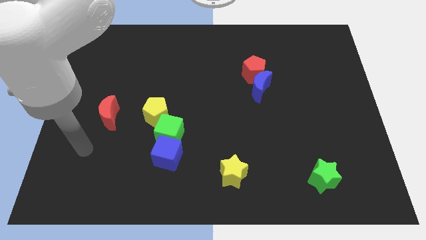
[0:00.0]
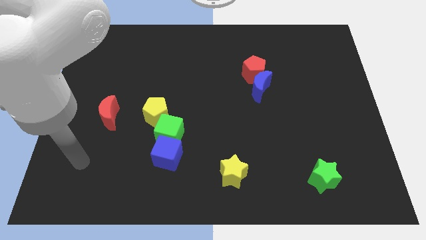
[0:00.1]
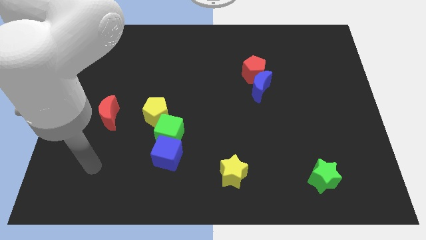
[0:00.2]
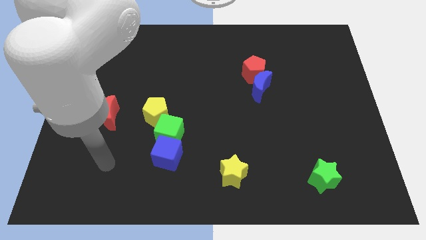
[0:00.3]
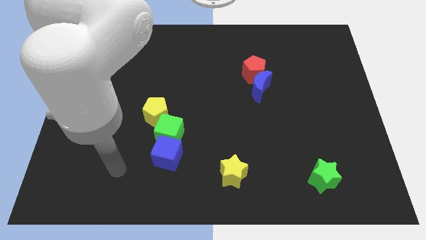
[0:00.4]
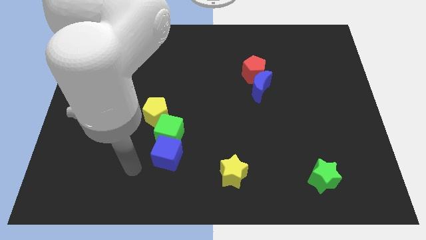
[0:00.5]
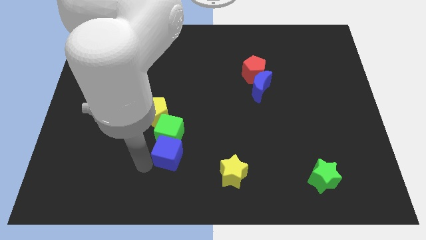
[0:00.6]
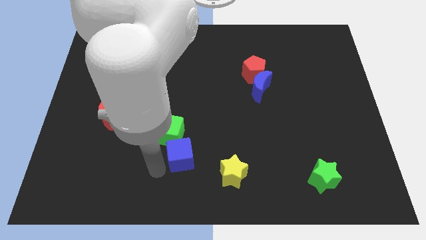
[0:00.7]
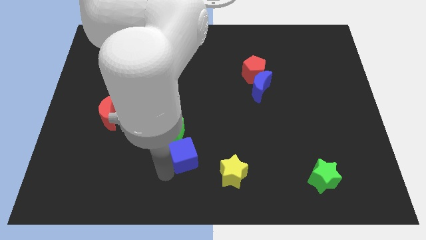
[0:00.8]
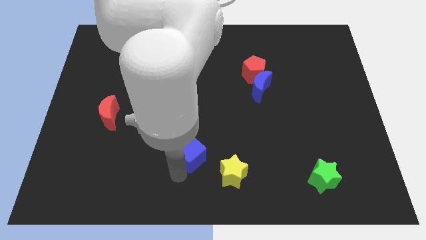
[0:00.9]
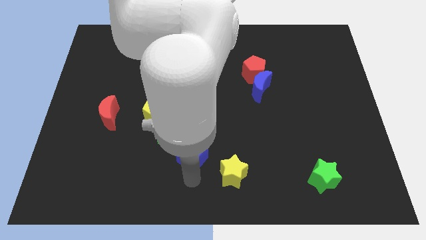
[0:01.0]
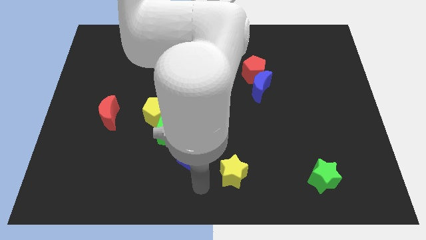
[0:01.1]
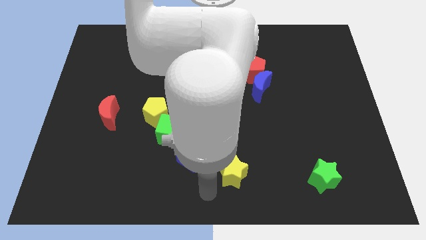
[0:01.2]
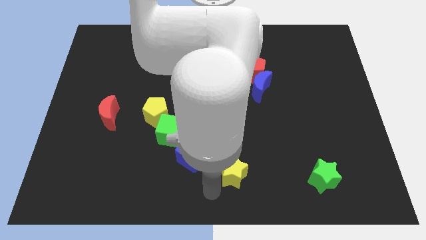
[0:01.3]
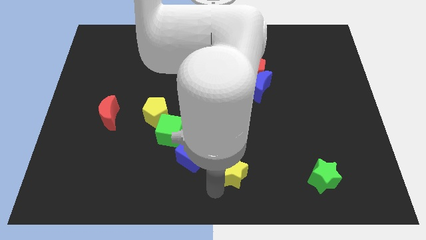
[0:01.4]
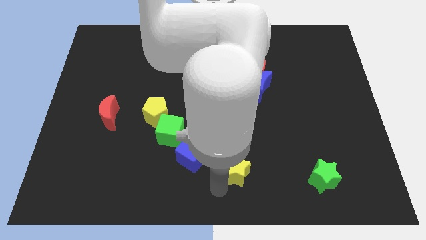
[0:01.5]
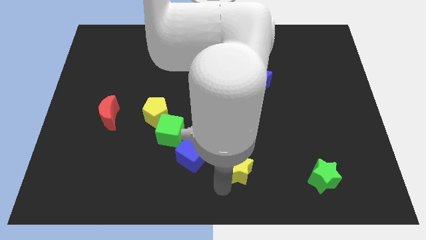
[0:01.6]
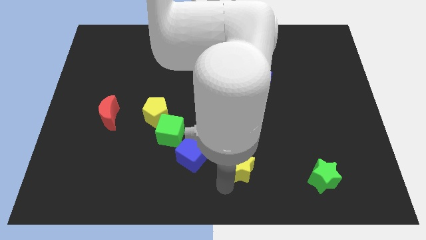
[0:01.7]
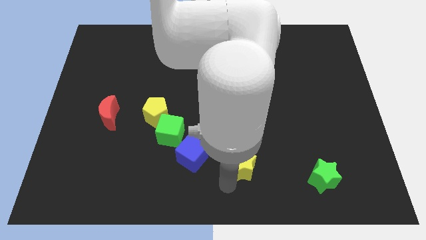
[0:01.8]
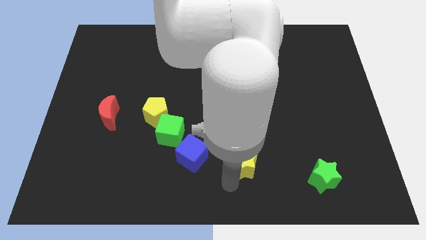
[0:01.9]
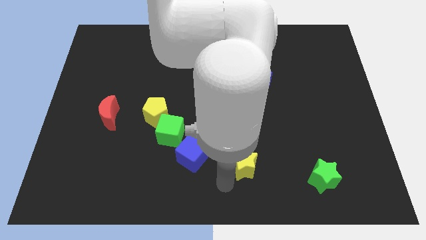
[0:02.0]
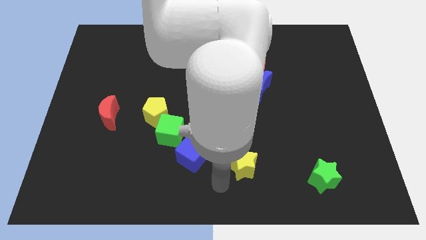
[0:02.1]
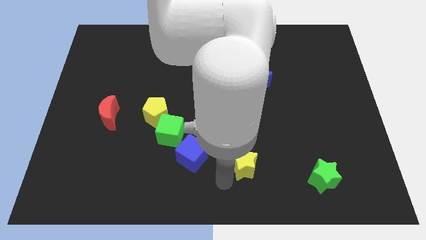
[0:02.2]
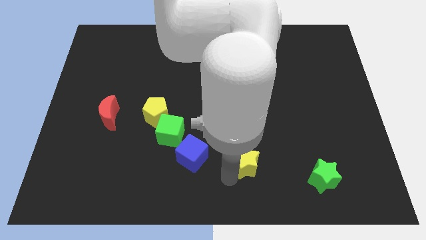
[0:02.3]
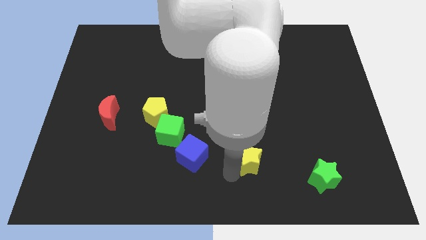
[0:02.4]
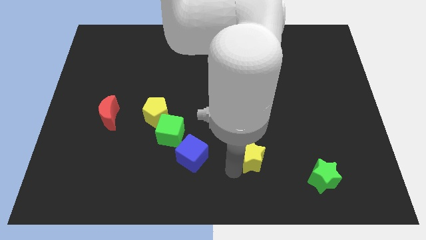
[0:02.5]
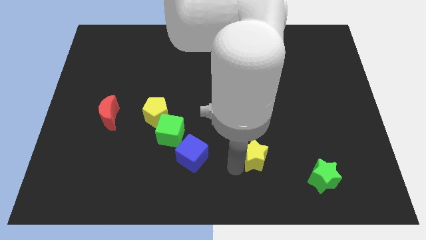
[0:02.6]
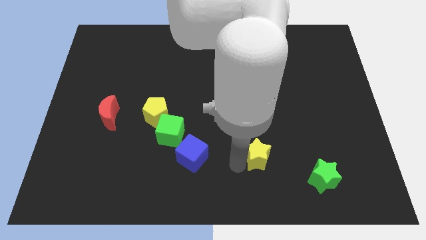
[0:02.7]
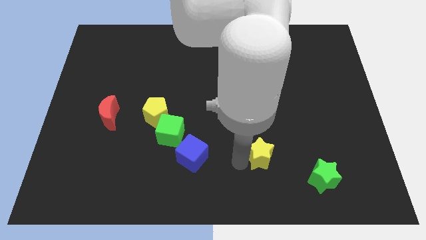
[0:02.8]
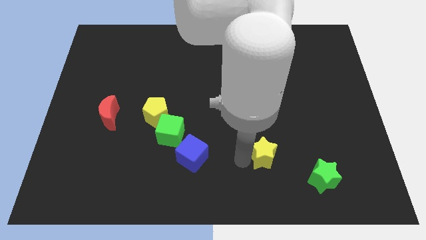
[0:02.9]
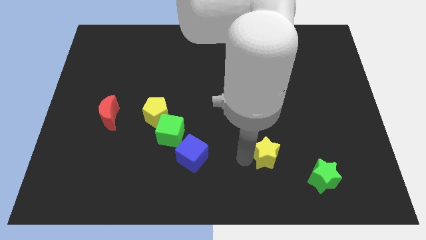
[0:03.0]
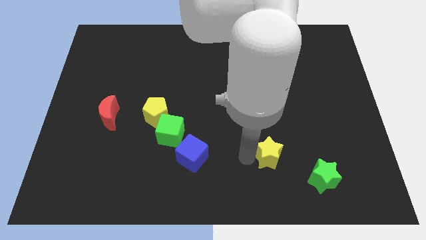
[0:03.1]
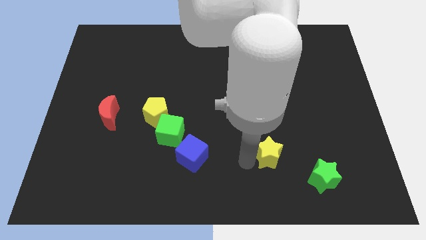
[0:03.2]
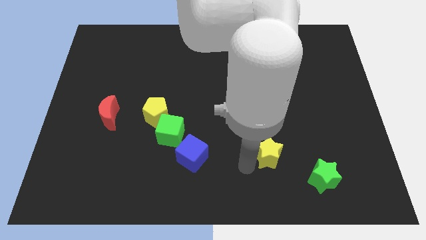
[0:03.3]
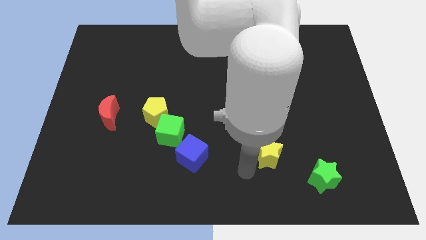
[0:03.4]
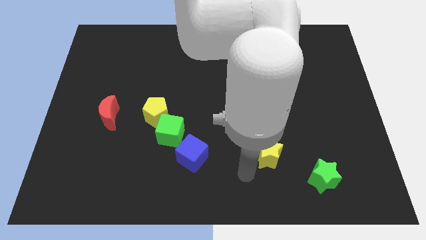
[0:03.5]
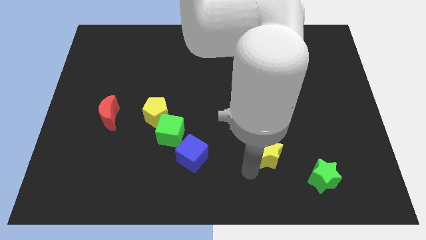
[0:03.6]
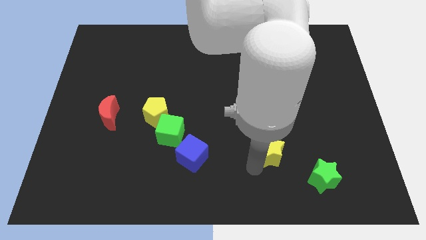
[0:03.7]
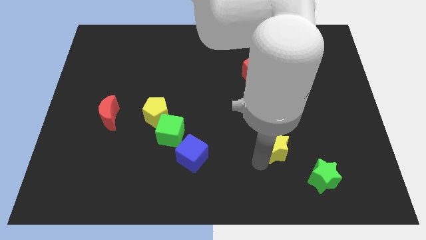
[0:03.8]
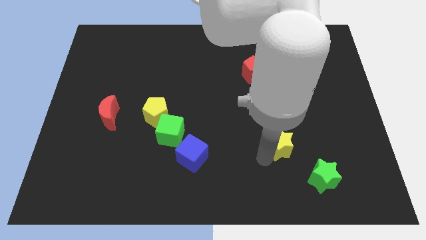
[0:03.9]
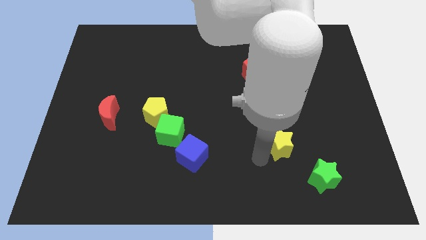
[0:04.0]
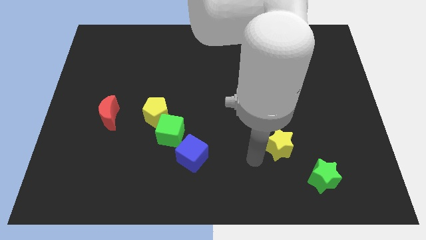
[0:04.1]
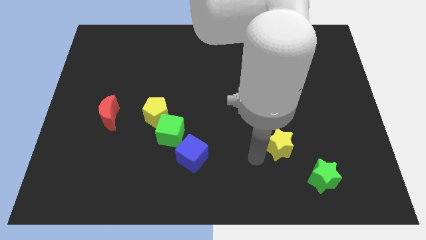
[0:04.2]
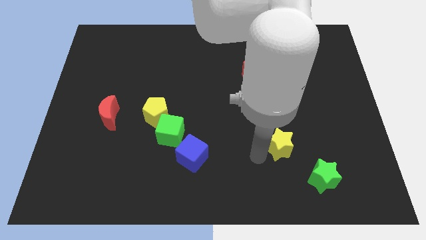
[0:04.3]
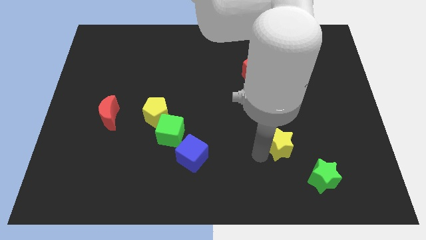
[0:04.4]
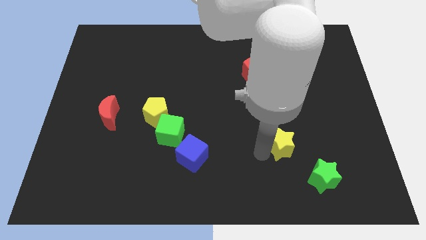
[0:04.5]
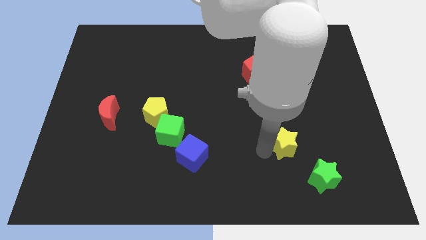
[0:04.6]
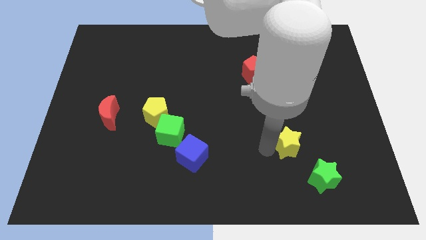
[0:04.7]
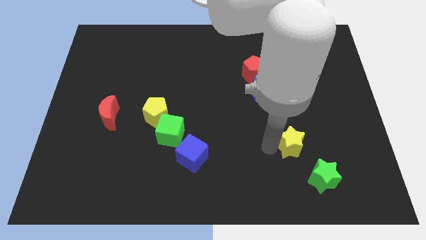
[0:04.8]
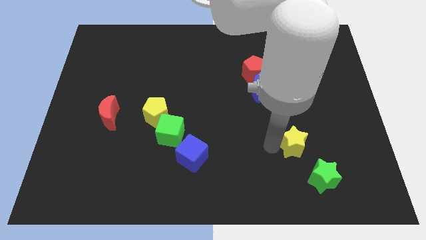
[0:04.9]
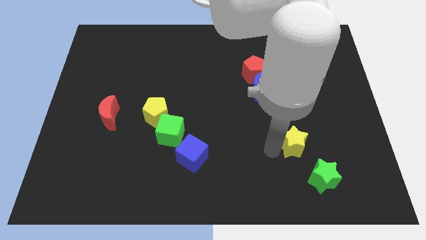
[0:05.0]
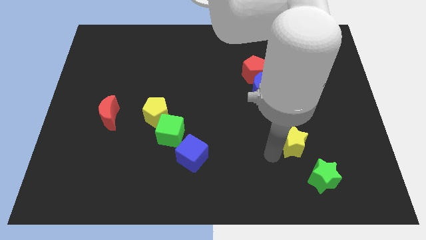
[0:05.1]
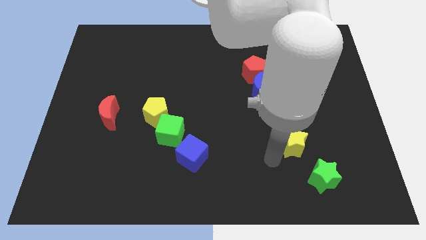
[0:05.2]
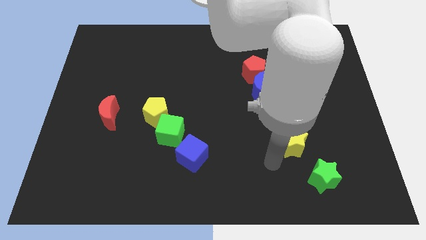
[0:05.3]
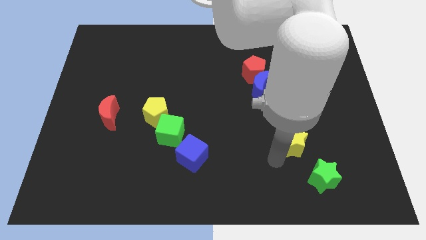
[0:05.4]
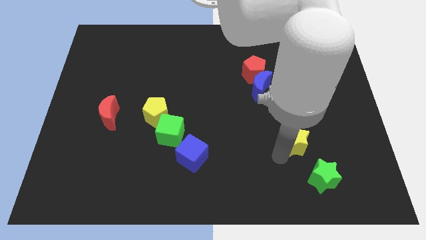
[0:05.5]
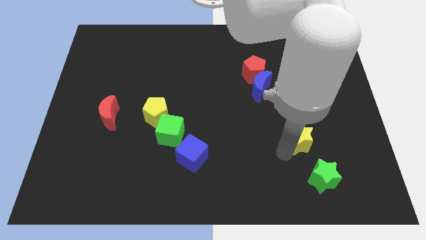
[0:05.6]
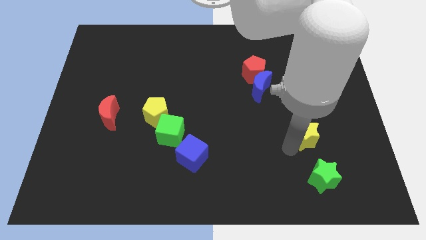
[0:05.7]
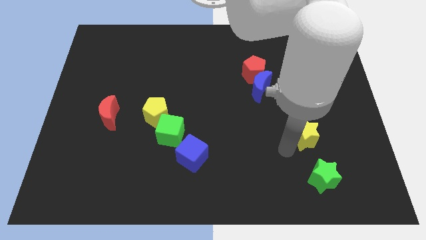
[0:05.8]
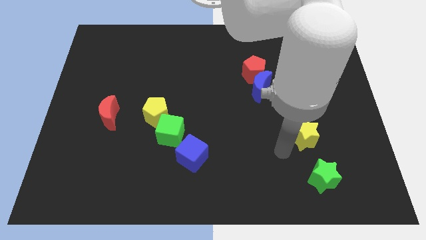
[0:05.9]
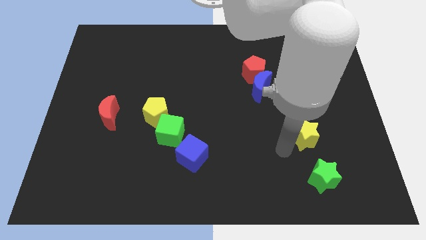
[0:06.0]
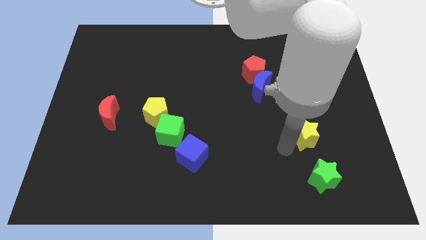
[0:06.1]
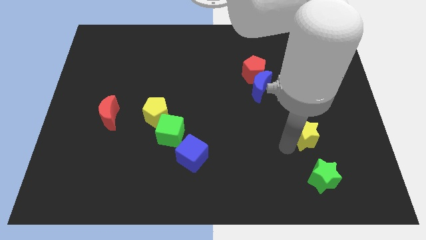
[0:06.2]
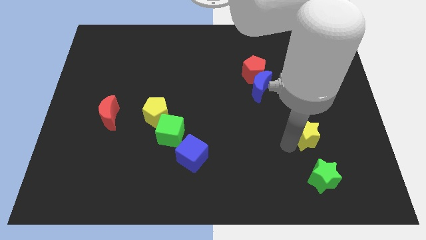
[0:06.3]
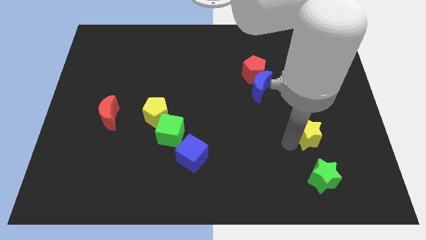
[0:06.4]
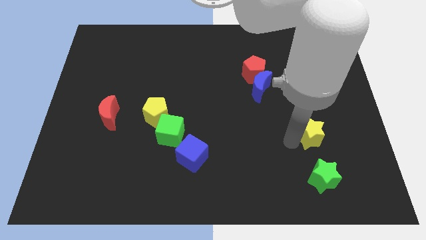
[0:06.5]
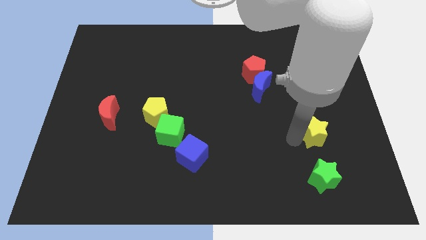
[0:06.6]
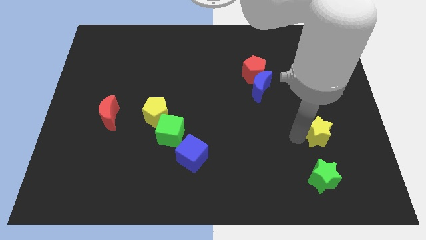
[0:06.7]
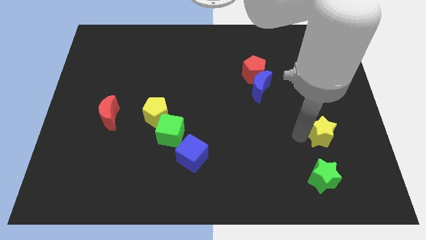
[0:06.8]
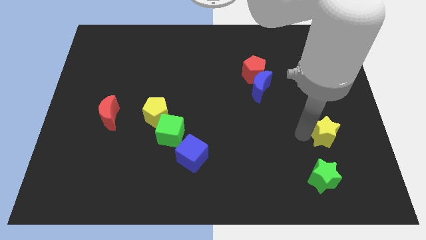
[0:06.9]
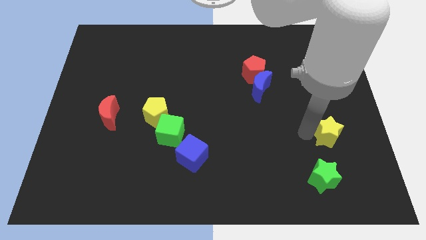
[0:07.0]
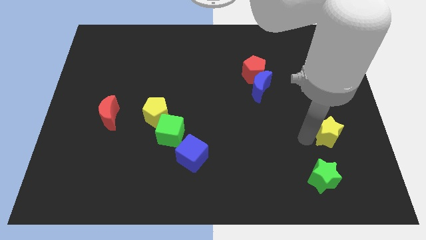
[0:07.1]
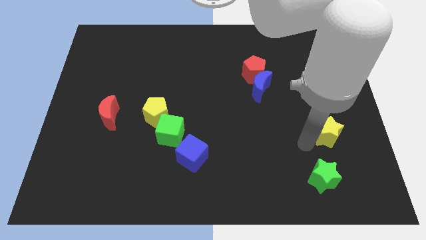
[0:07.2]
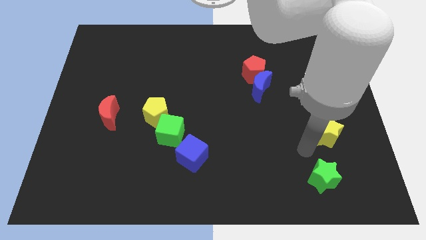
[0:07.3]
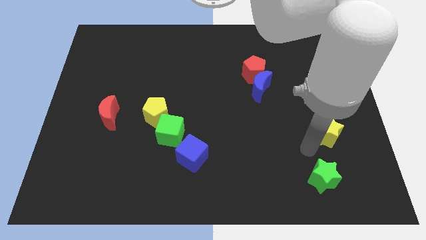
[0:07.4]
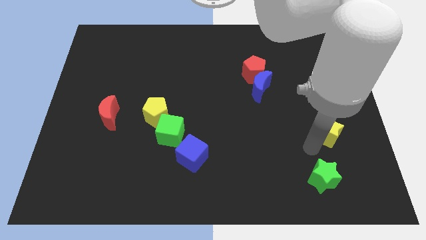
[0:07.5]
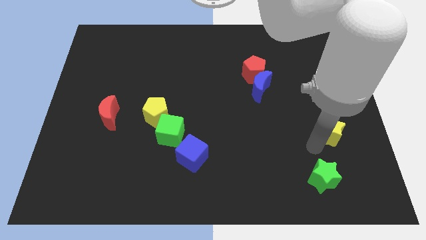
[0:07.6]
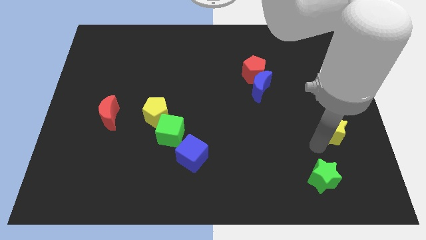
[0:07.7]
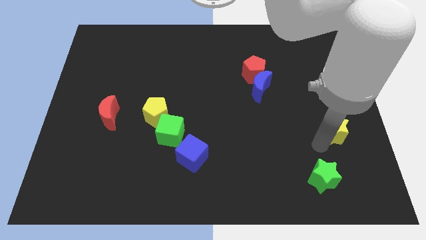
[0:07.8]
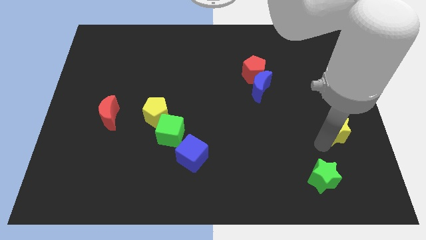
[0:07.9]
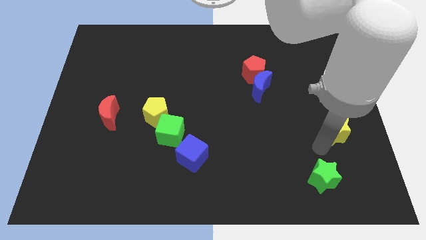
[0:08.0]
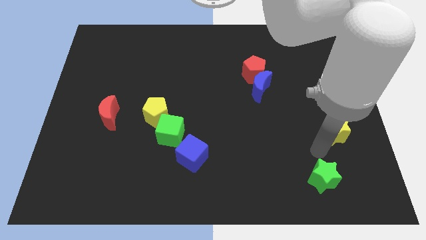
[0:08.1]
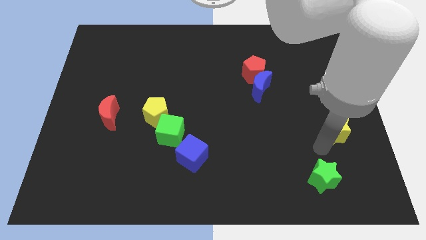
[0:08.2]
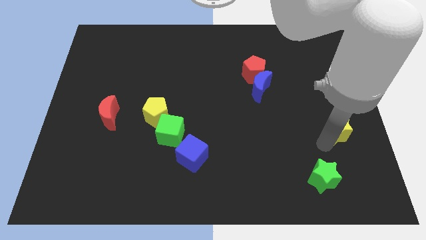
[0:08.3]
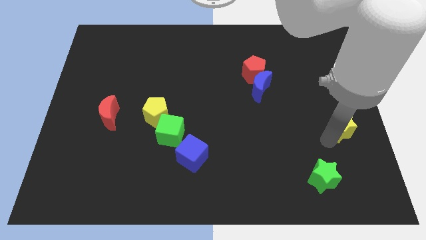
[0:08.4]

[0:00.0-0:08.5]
slide the yellow star to the right side of the board
